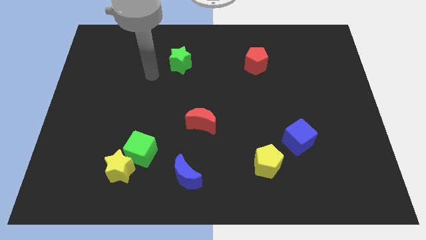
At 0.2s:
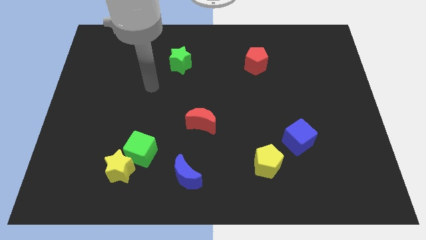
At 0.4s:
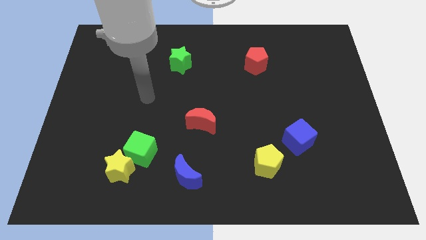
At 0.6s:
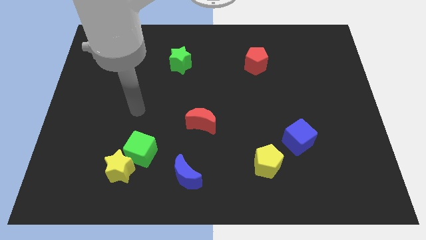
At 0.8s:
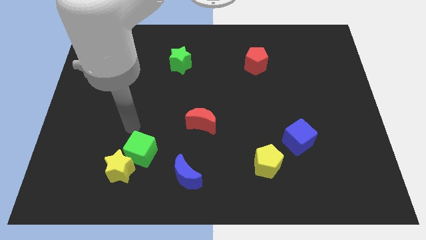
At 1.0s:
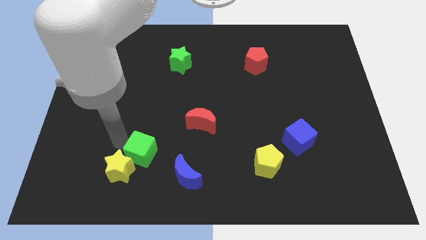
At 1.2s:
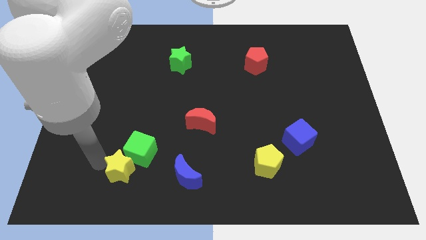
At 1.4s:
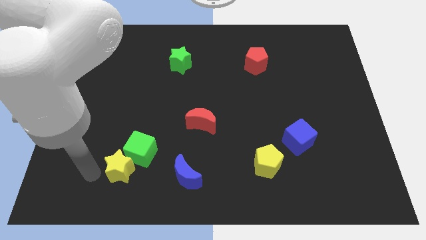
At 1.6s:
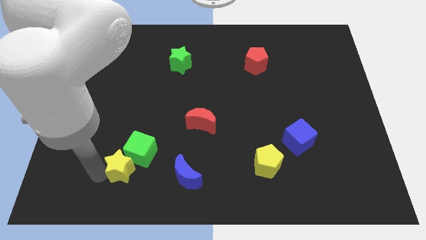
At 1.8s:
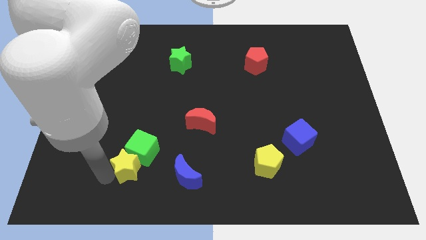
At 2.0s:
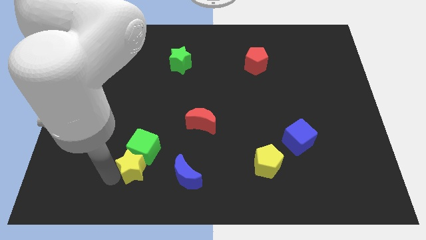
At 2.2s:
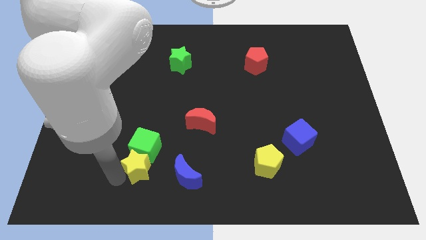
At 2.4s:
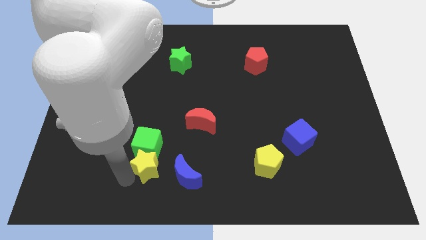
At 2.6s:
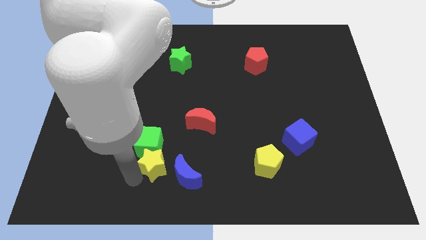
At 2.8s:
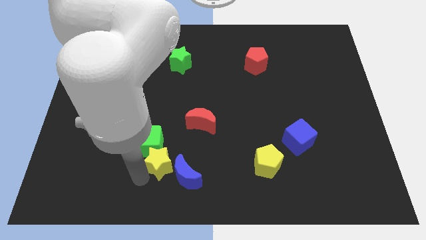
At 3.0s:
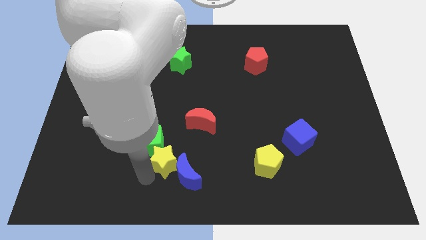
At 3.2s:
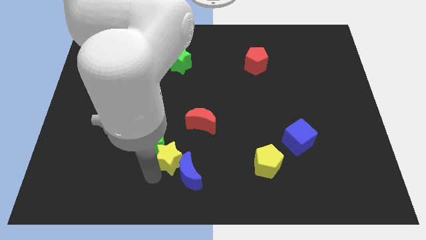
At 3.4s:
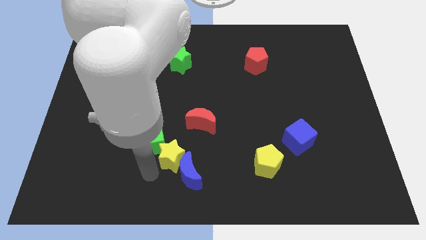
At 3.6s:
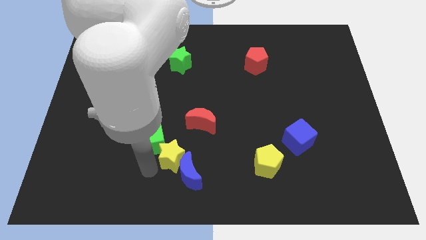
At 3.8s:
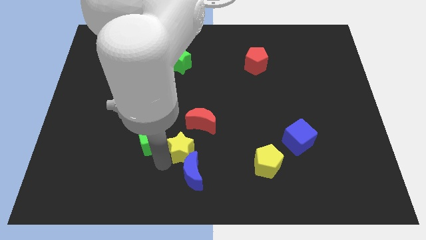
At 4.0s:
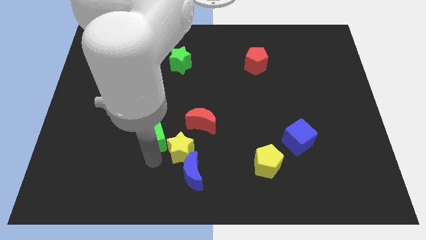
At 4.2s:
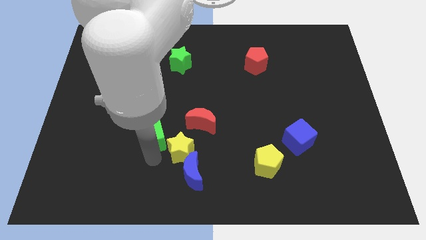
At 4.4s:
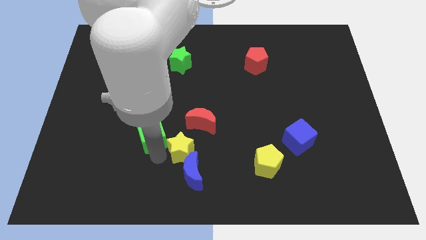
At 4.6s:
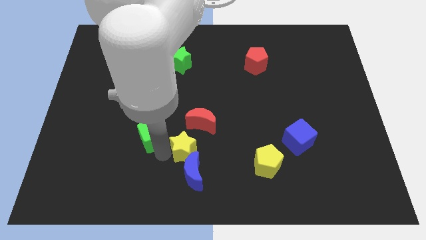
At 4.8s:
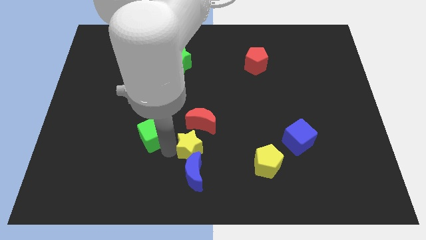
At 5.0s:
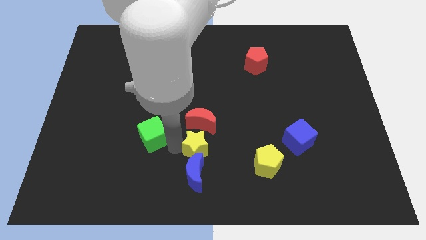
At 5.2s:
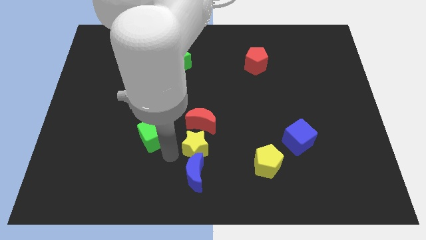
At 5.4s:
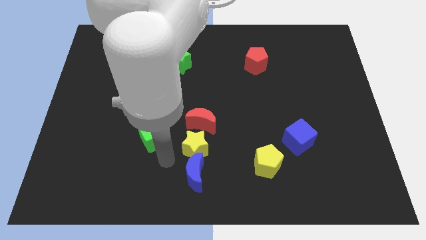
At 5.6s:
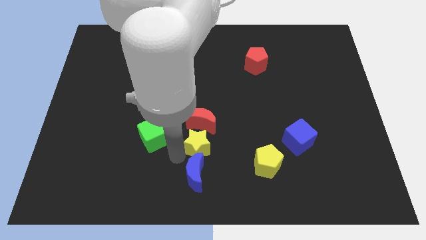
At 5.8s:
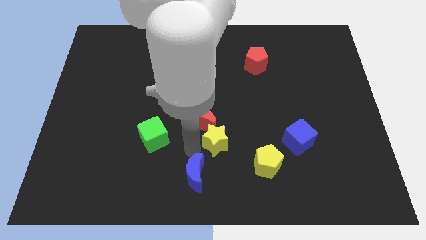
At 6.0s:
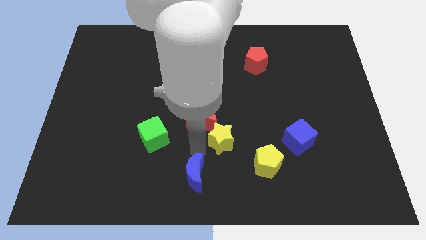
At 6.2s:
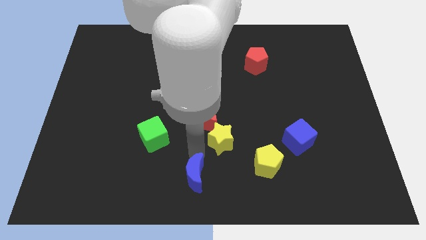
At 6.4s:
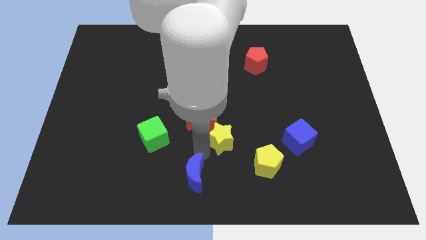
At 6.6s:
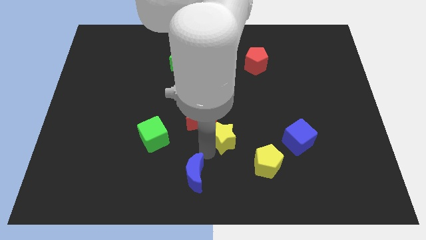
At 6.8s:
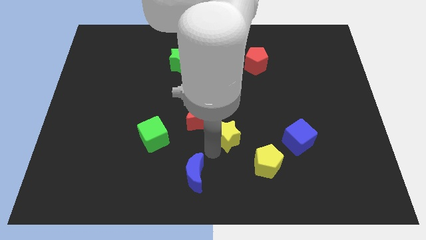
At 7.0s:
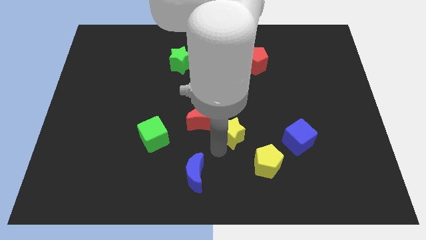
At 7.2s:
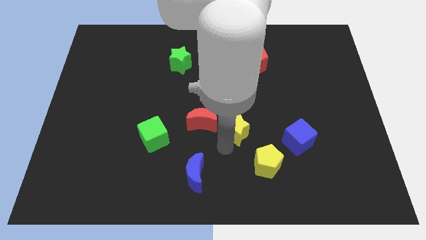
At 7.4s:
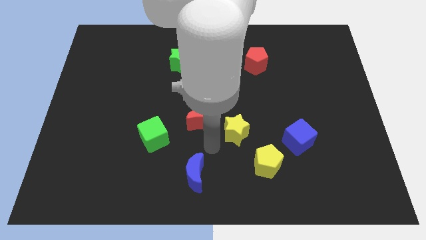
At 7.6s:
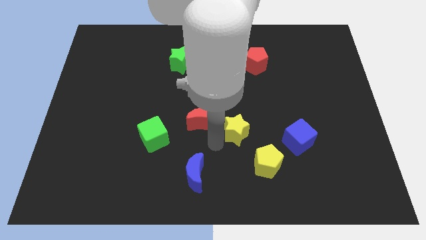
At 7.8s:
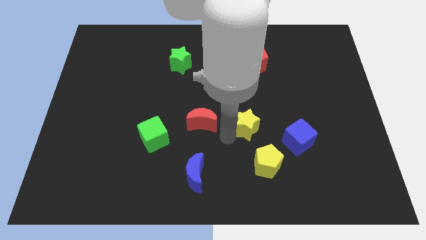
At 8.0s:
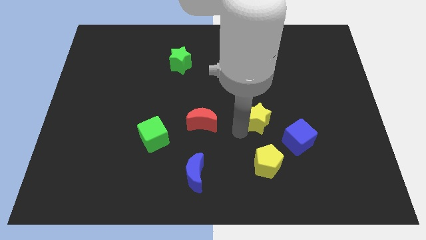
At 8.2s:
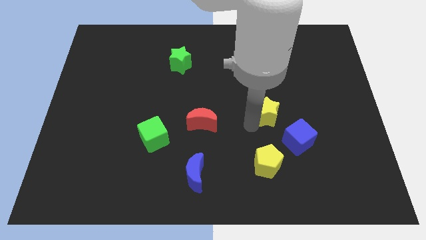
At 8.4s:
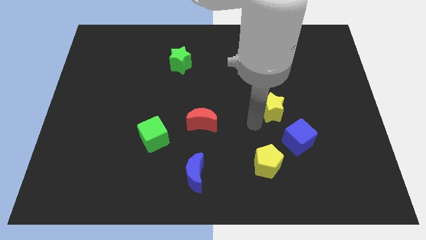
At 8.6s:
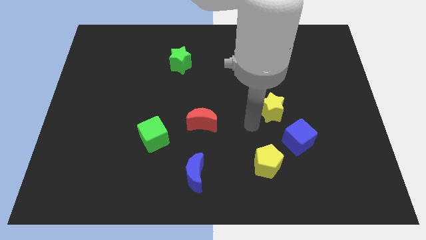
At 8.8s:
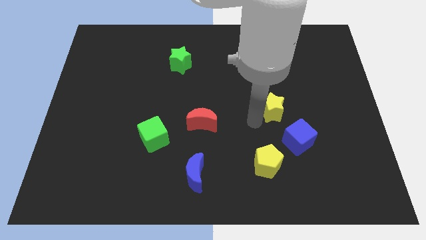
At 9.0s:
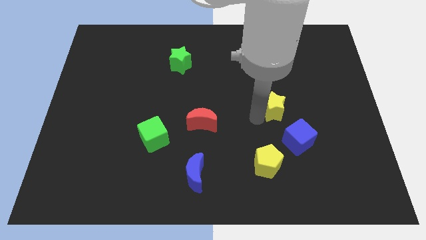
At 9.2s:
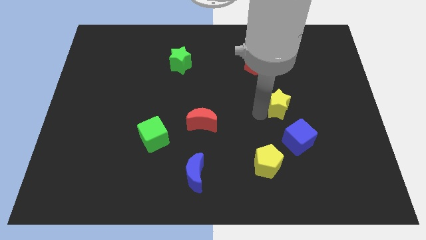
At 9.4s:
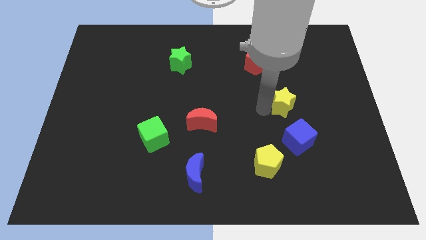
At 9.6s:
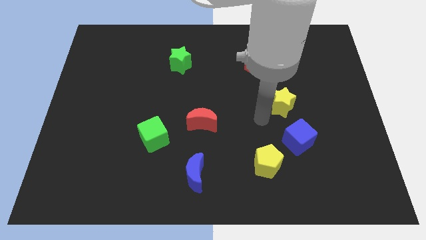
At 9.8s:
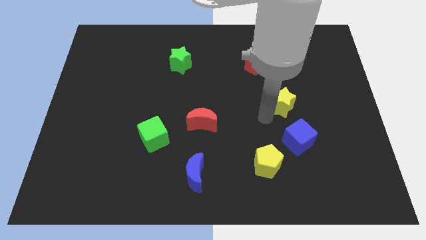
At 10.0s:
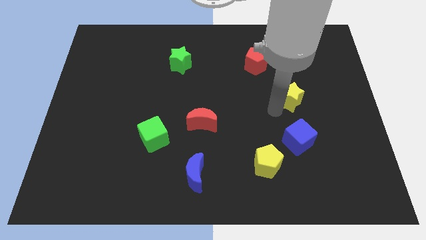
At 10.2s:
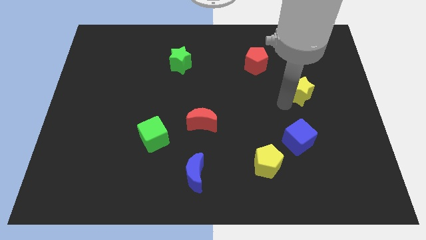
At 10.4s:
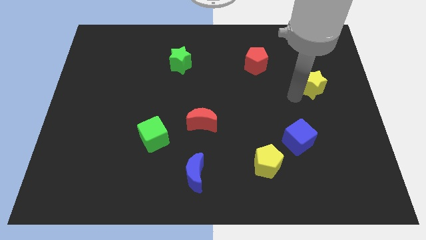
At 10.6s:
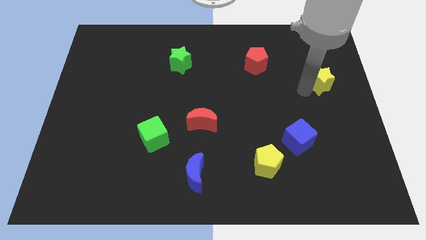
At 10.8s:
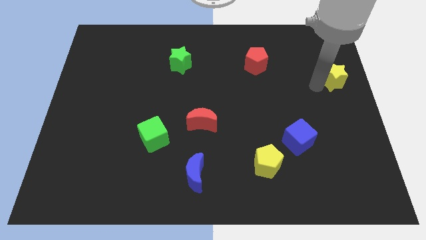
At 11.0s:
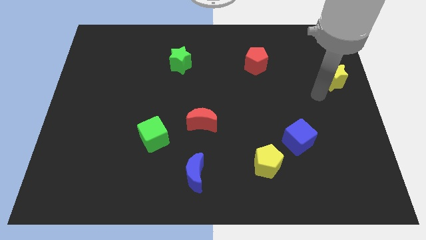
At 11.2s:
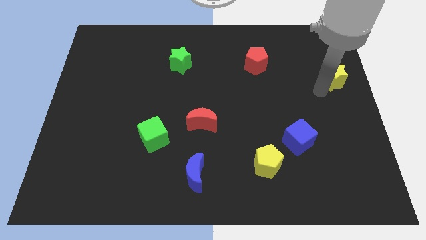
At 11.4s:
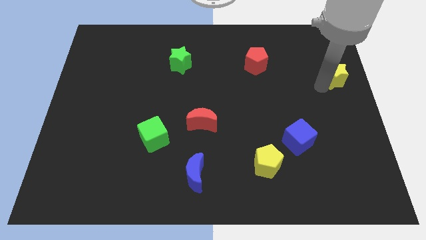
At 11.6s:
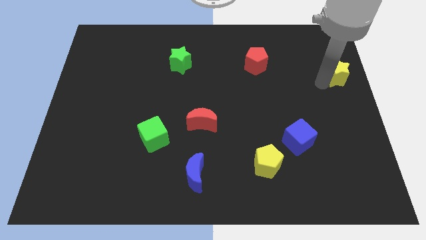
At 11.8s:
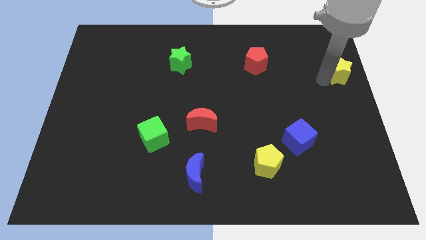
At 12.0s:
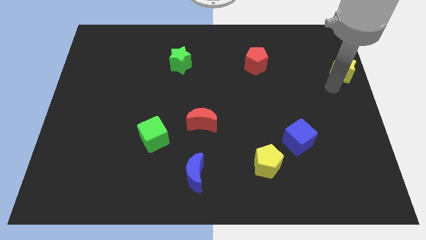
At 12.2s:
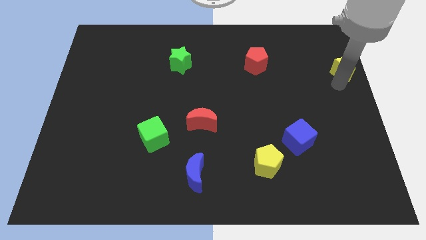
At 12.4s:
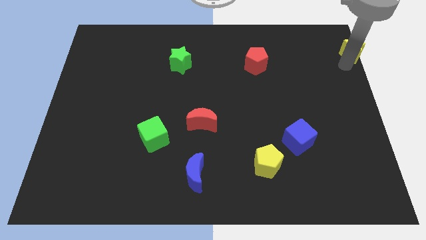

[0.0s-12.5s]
slide the yellow star to the top right of the board
